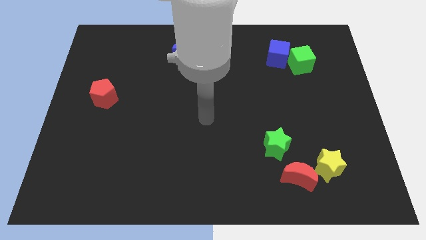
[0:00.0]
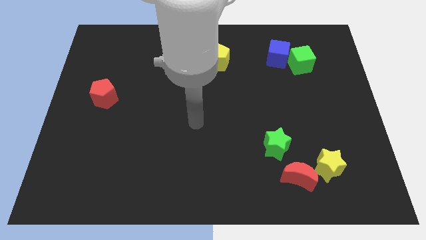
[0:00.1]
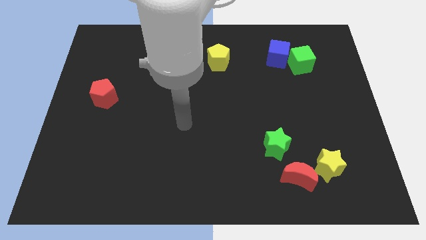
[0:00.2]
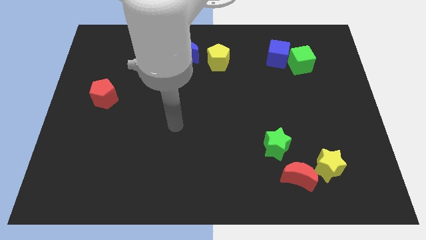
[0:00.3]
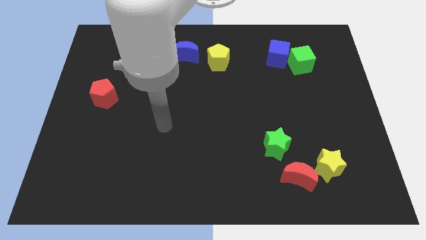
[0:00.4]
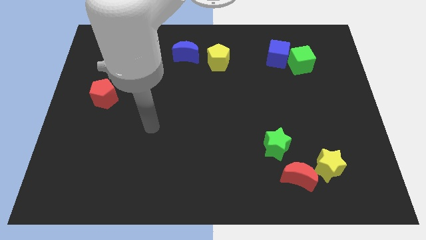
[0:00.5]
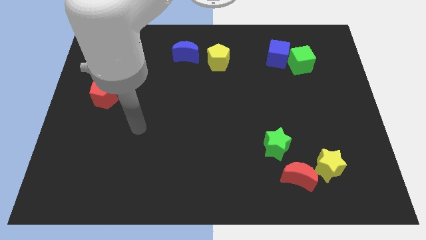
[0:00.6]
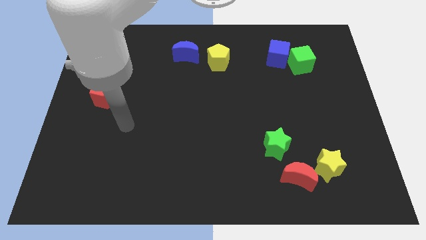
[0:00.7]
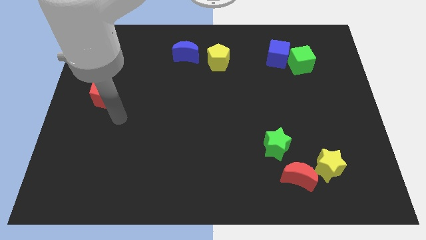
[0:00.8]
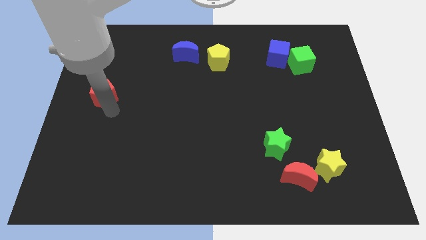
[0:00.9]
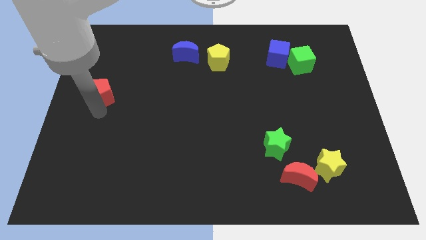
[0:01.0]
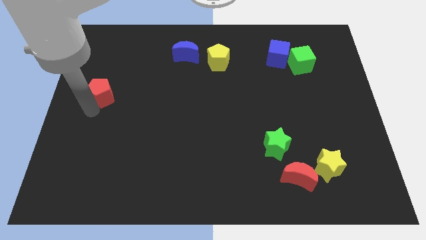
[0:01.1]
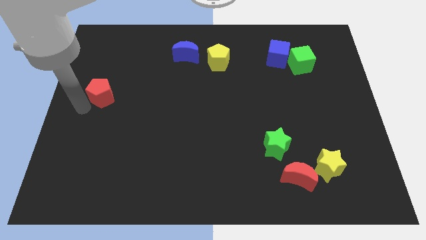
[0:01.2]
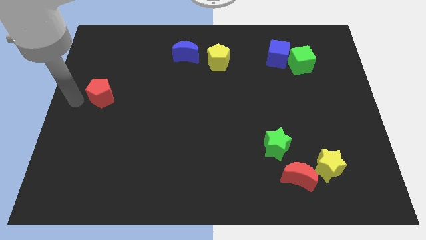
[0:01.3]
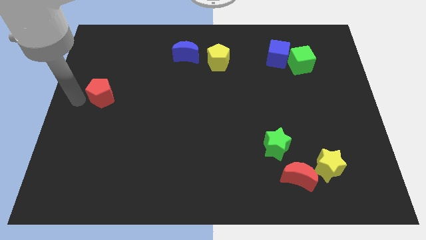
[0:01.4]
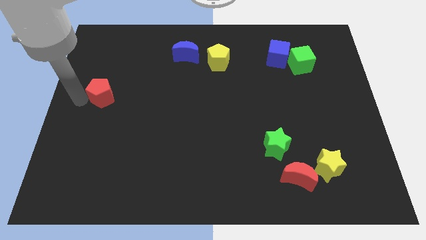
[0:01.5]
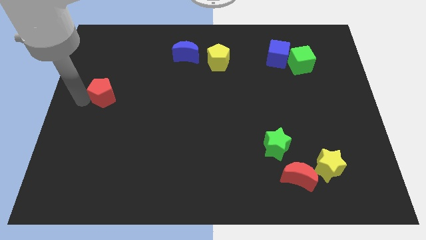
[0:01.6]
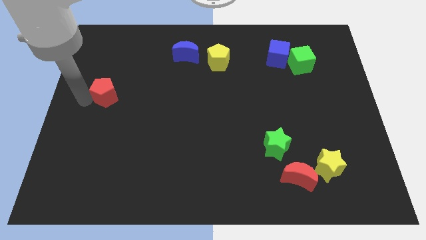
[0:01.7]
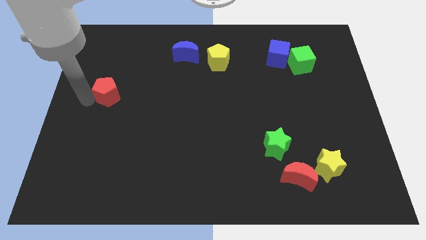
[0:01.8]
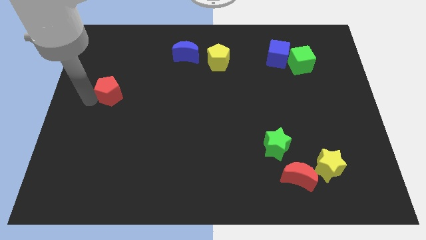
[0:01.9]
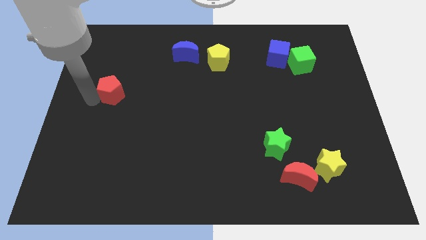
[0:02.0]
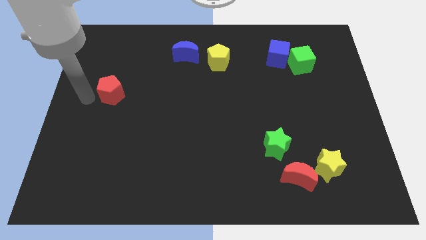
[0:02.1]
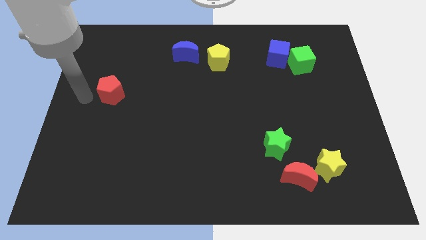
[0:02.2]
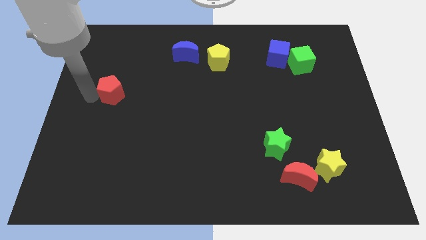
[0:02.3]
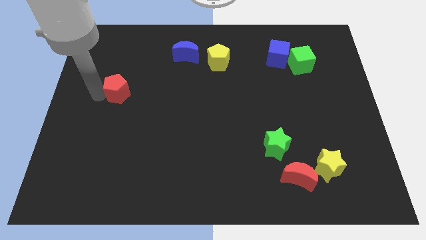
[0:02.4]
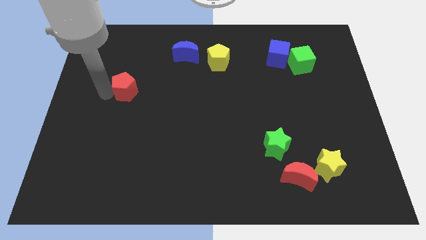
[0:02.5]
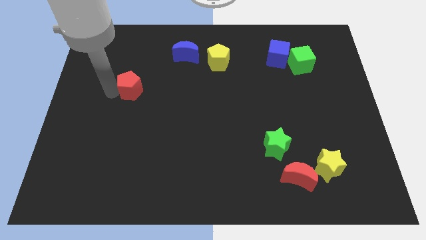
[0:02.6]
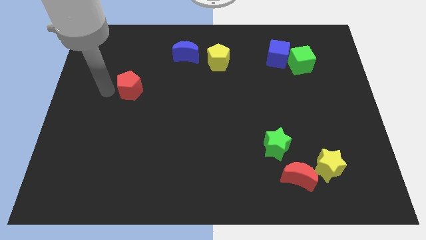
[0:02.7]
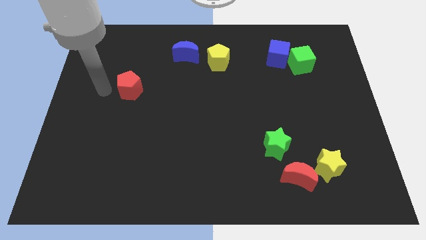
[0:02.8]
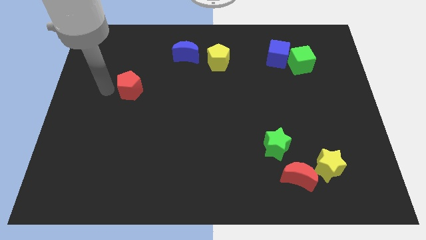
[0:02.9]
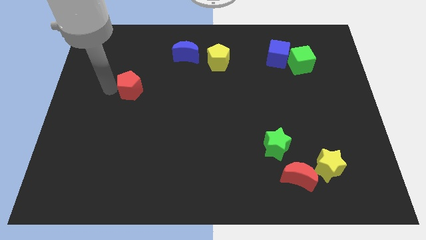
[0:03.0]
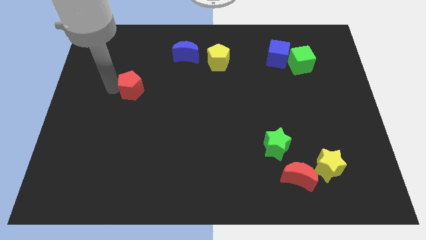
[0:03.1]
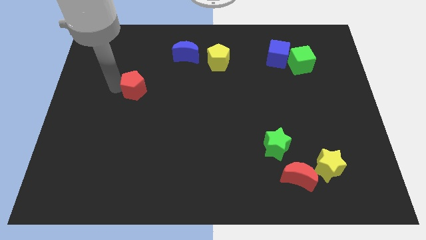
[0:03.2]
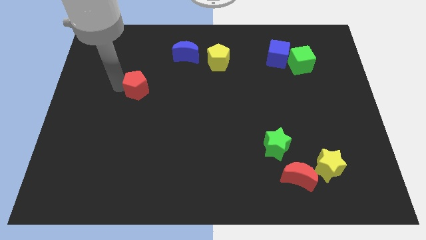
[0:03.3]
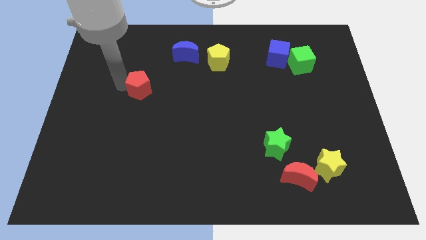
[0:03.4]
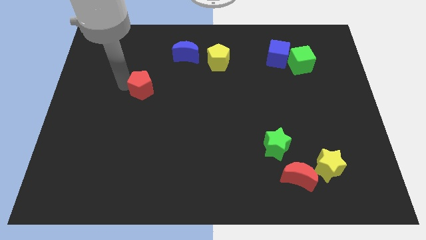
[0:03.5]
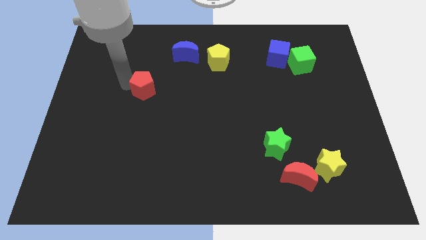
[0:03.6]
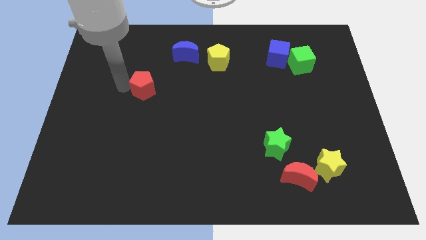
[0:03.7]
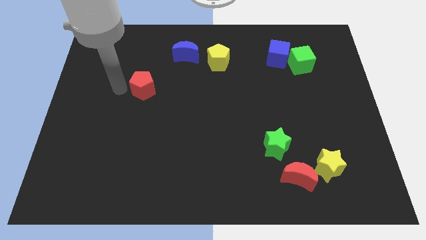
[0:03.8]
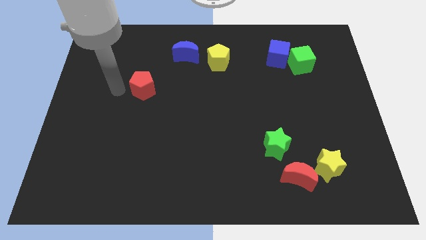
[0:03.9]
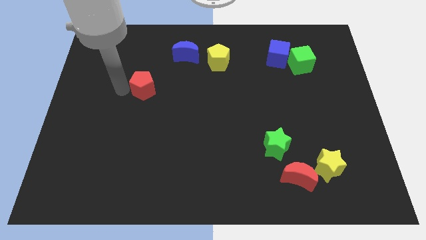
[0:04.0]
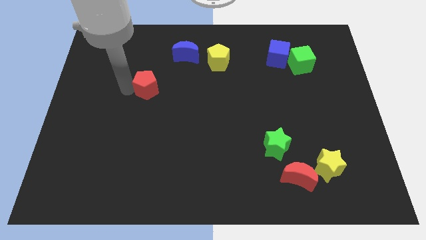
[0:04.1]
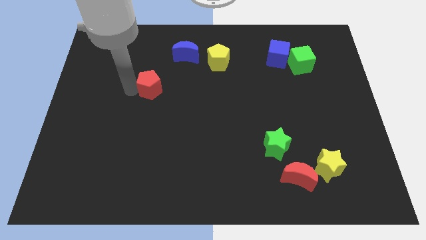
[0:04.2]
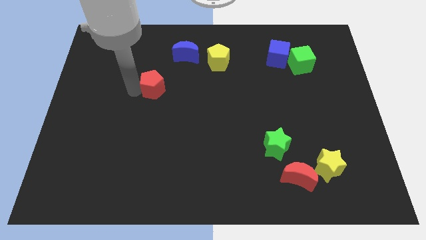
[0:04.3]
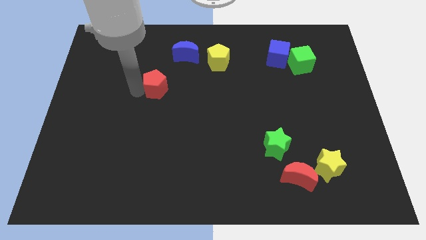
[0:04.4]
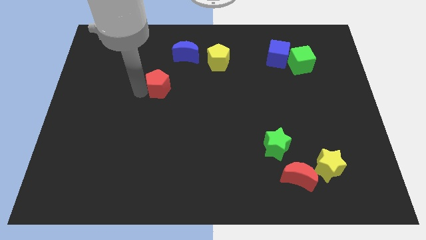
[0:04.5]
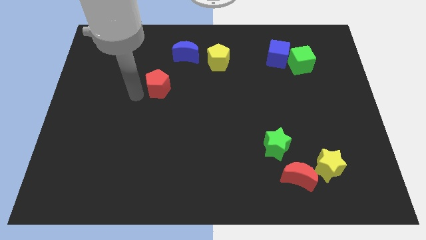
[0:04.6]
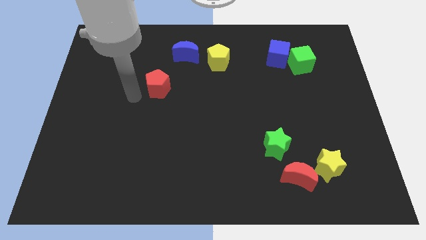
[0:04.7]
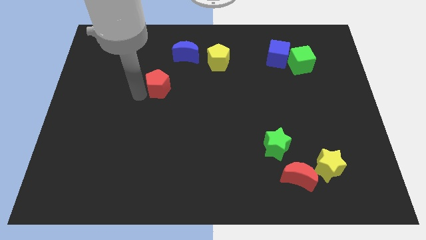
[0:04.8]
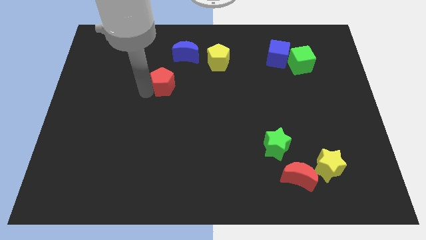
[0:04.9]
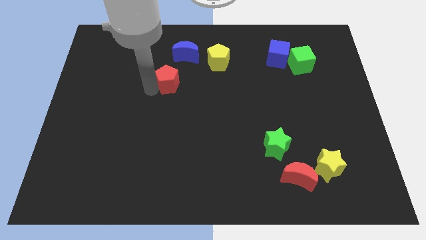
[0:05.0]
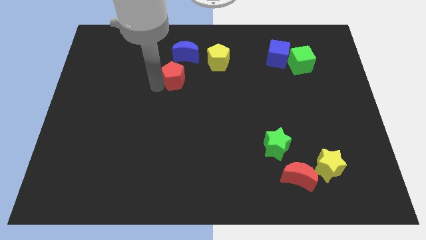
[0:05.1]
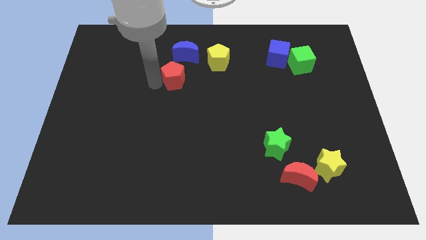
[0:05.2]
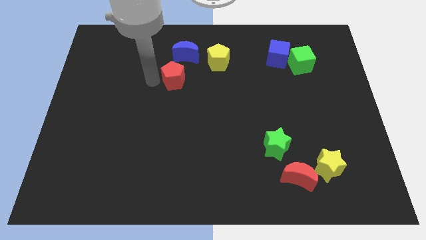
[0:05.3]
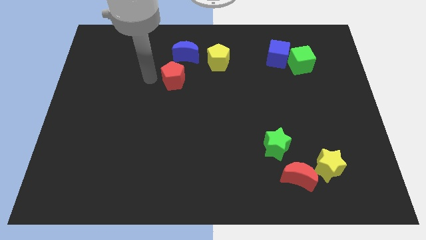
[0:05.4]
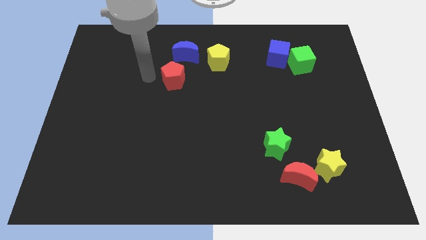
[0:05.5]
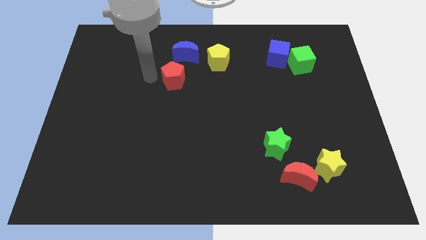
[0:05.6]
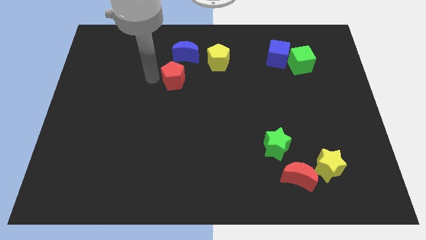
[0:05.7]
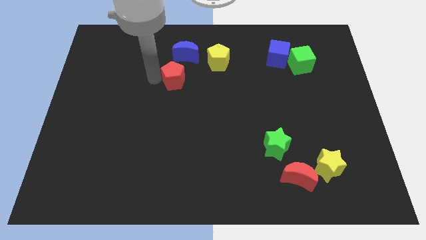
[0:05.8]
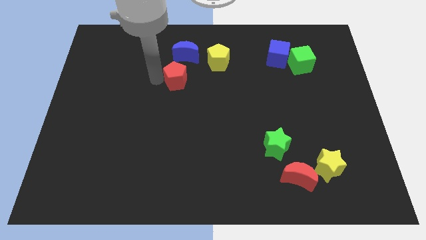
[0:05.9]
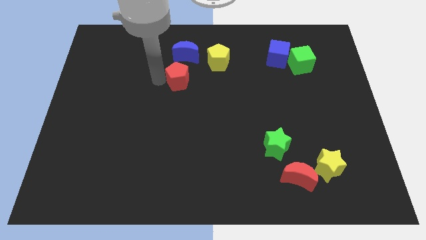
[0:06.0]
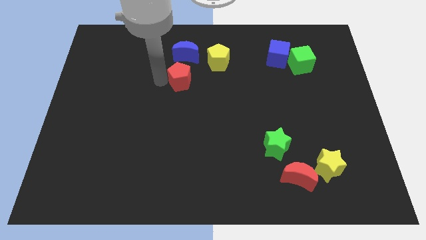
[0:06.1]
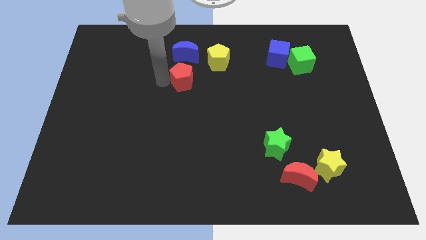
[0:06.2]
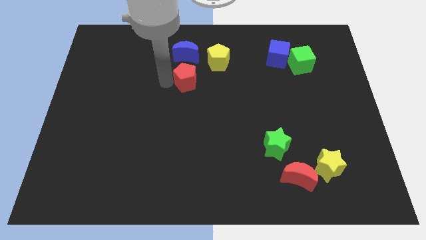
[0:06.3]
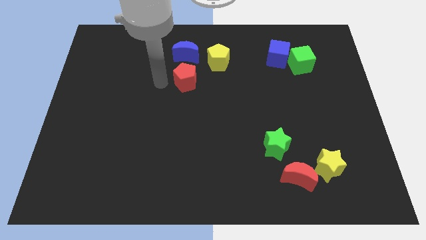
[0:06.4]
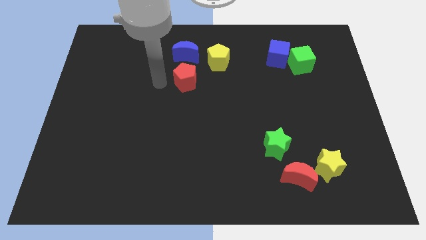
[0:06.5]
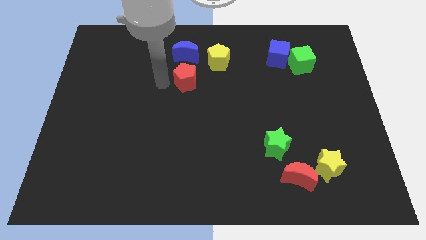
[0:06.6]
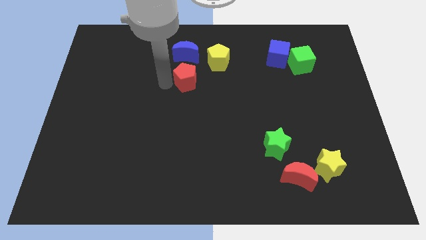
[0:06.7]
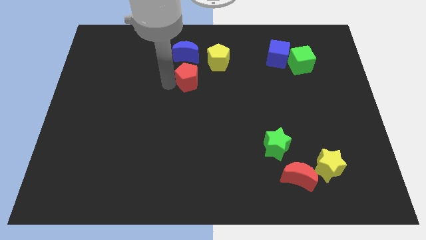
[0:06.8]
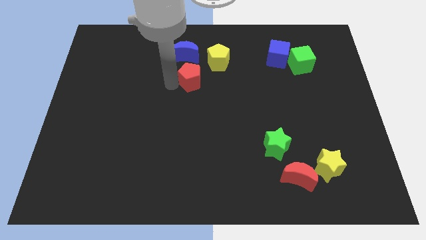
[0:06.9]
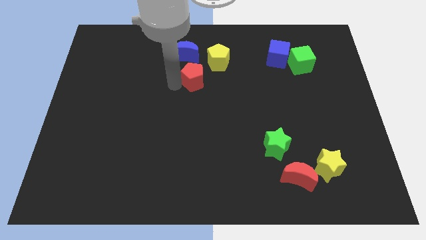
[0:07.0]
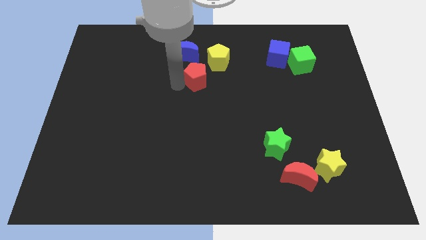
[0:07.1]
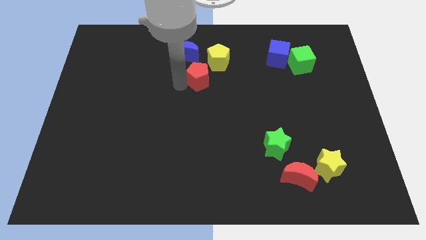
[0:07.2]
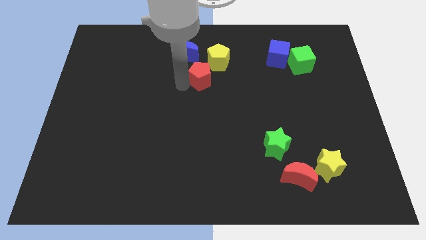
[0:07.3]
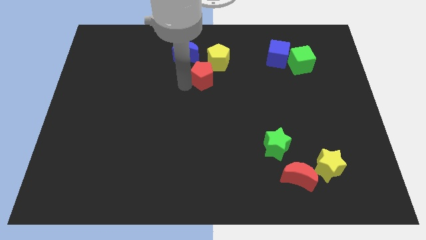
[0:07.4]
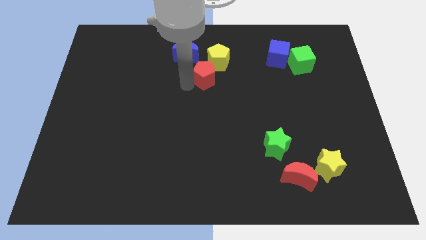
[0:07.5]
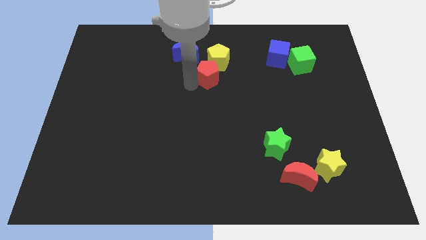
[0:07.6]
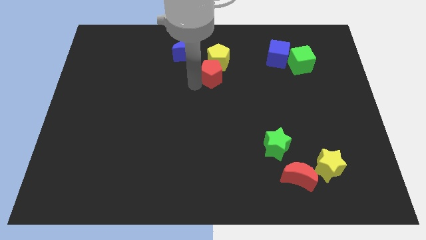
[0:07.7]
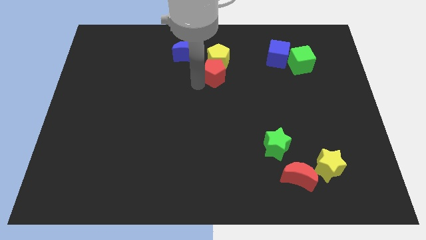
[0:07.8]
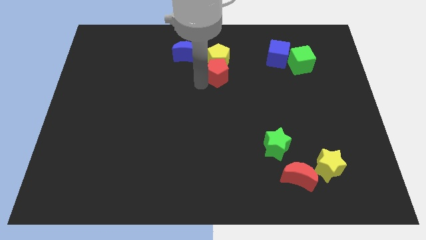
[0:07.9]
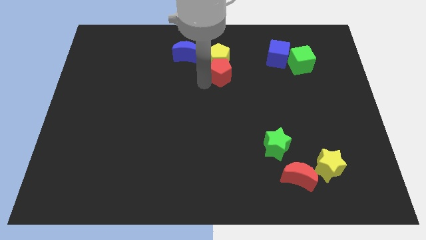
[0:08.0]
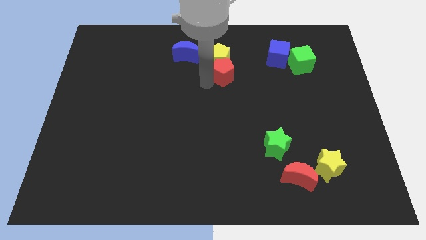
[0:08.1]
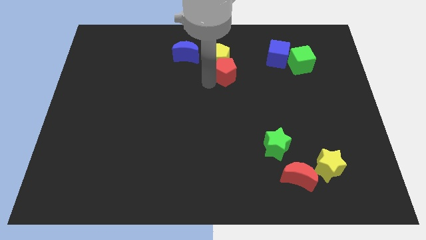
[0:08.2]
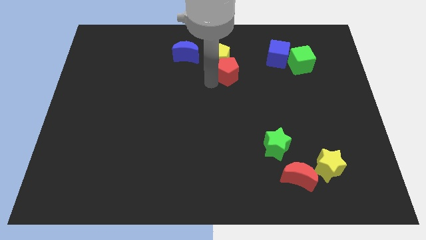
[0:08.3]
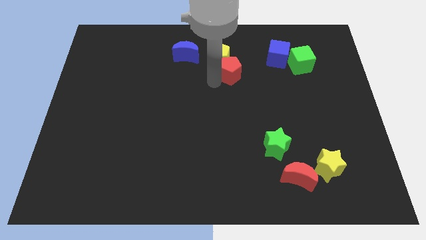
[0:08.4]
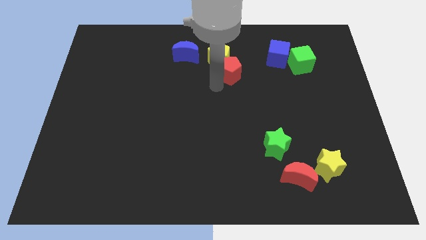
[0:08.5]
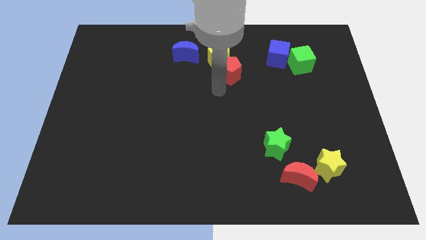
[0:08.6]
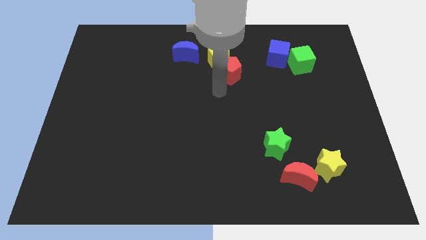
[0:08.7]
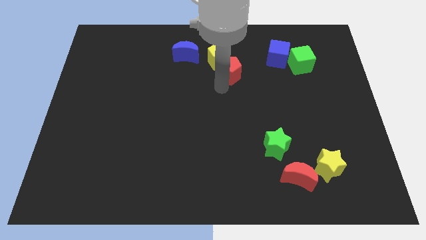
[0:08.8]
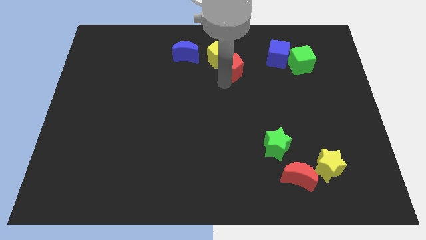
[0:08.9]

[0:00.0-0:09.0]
push the red pentagon to the left of the blue cube
